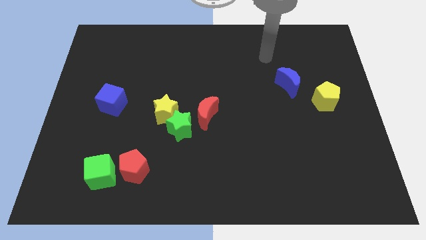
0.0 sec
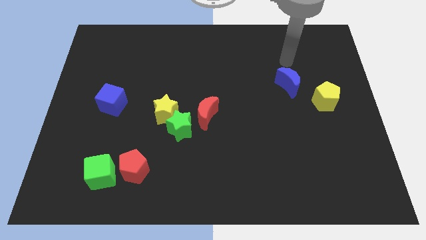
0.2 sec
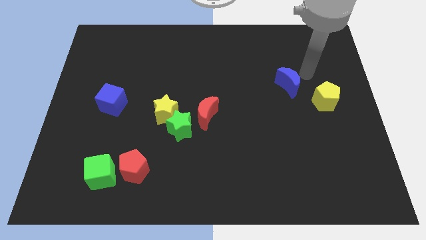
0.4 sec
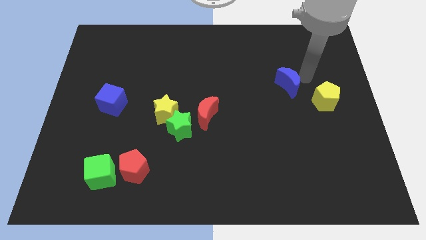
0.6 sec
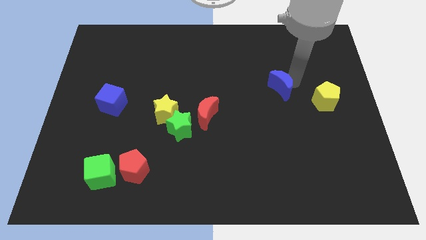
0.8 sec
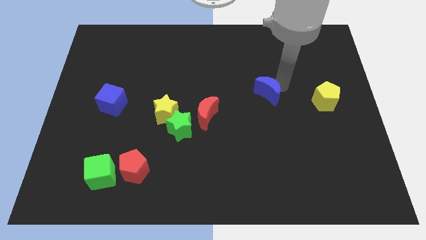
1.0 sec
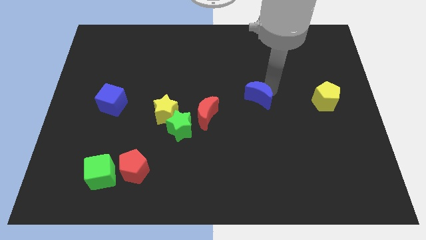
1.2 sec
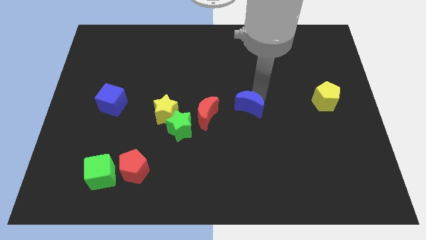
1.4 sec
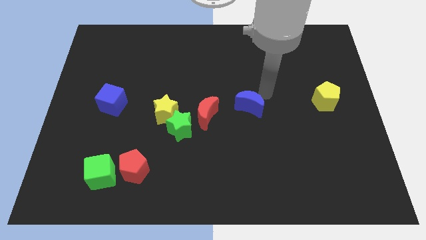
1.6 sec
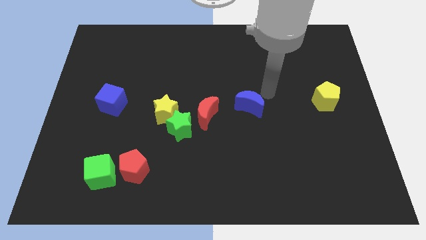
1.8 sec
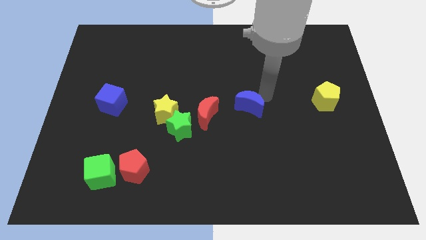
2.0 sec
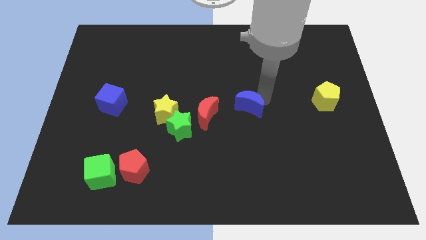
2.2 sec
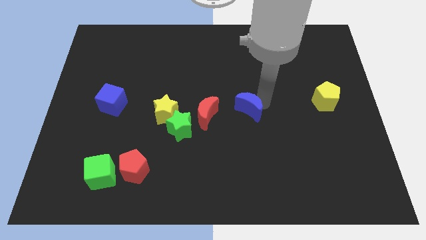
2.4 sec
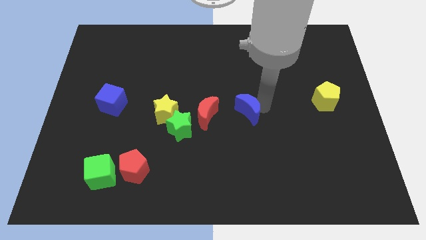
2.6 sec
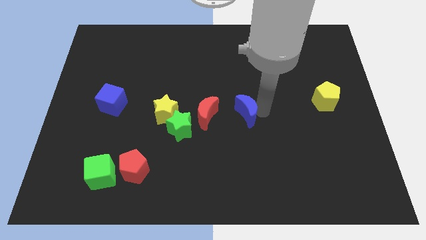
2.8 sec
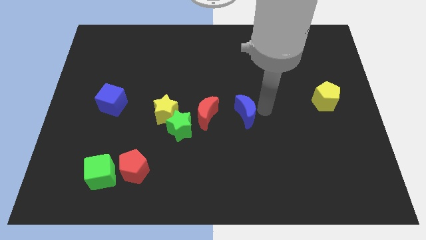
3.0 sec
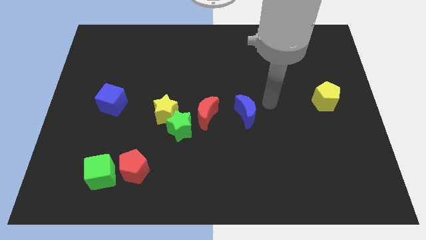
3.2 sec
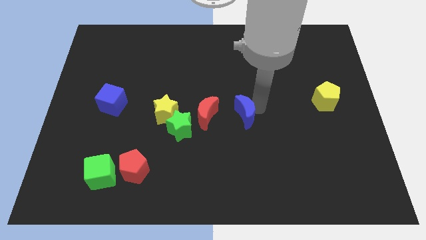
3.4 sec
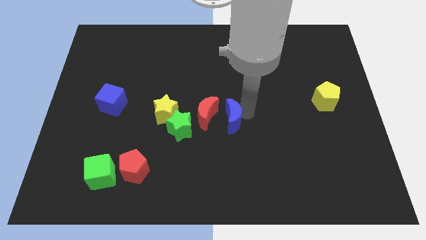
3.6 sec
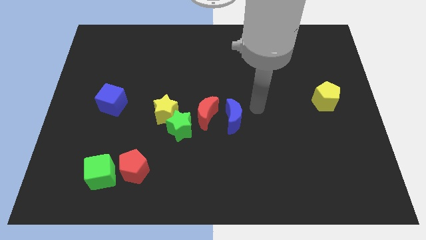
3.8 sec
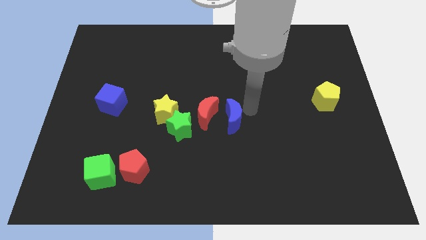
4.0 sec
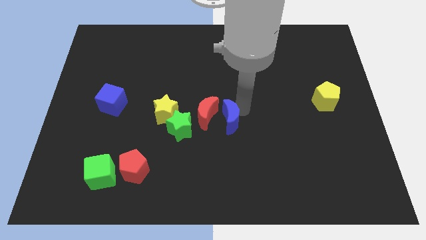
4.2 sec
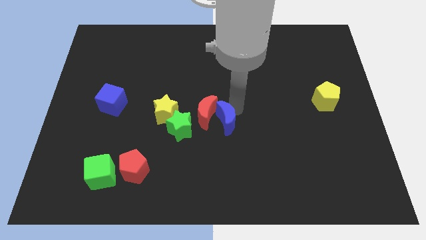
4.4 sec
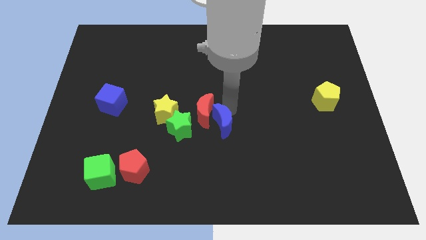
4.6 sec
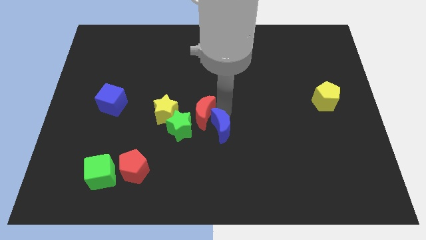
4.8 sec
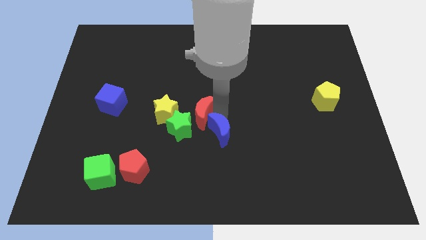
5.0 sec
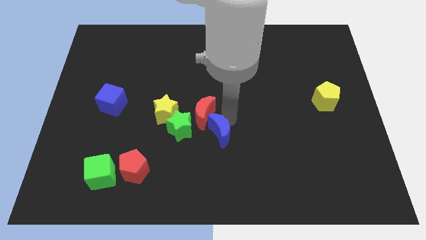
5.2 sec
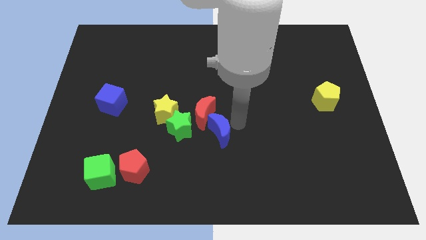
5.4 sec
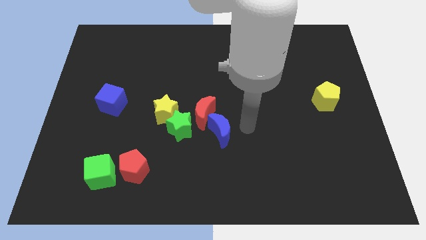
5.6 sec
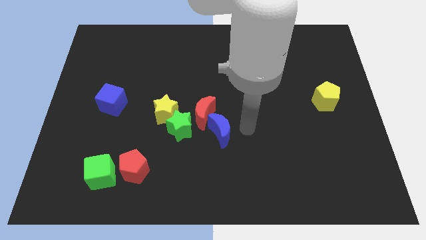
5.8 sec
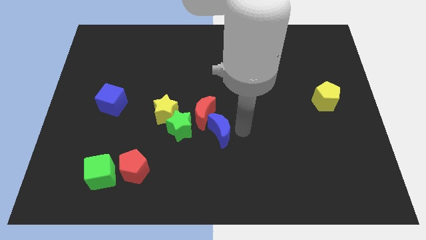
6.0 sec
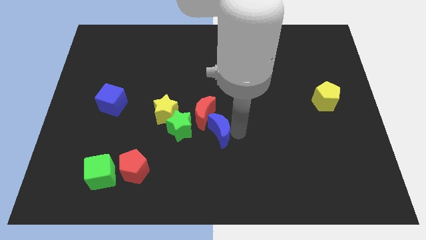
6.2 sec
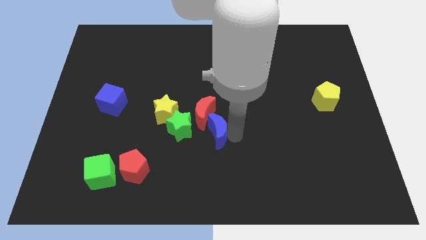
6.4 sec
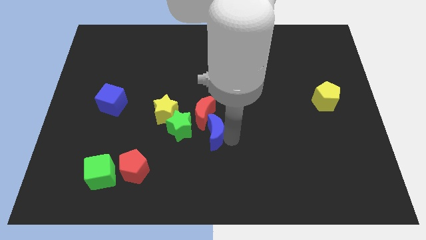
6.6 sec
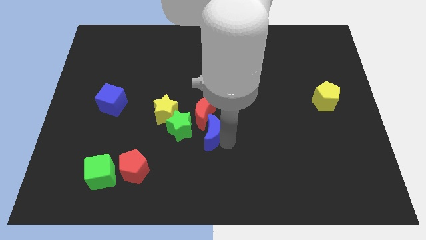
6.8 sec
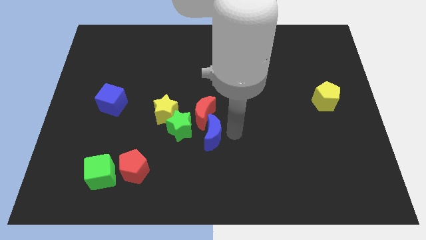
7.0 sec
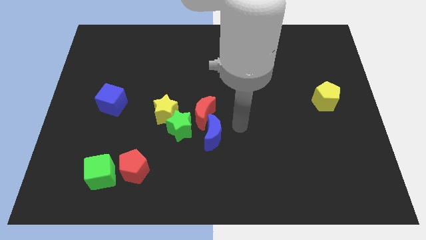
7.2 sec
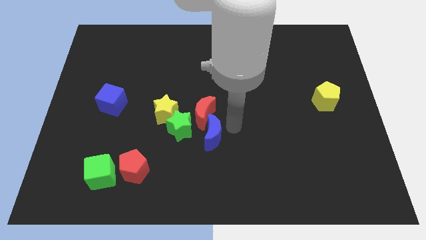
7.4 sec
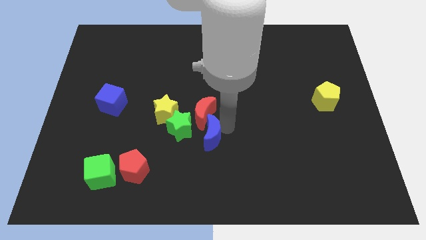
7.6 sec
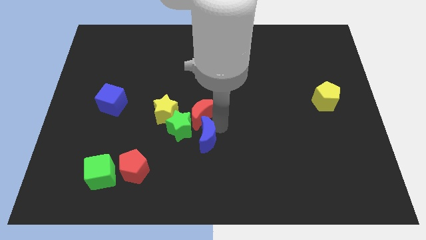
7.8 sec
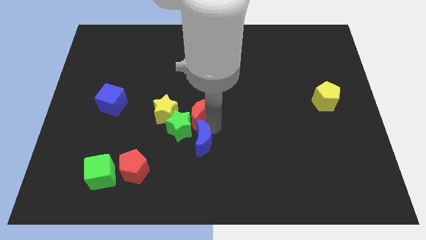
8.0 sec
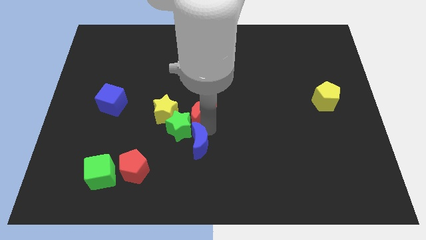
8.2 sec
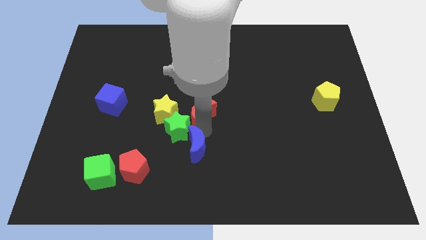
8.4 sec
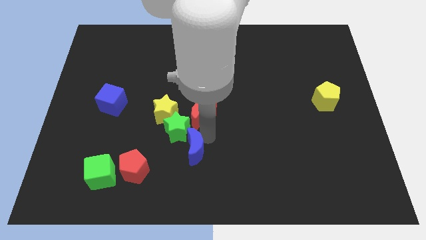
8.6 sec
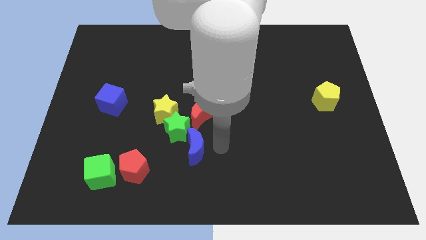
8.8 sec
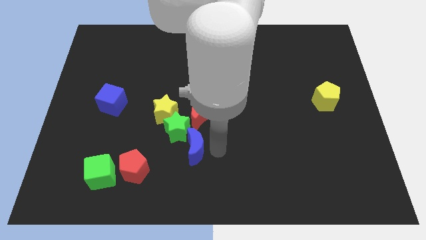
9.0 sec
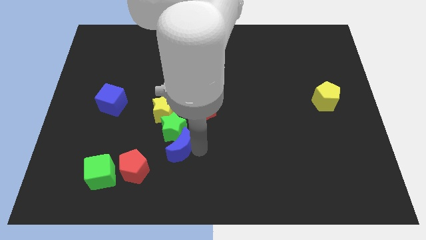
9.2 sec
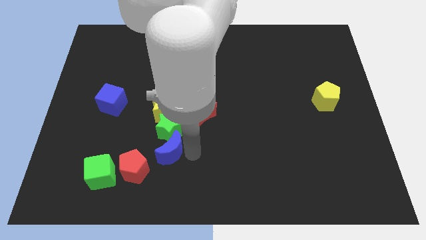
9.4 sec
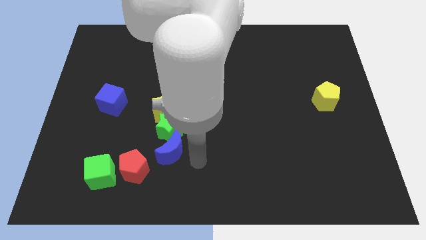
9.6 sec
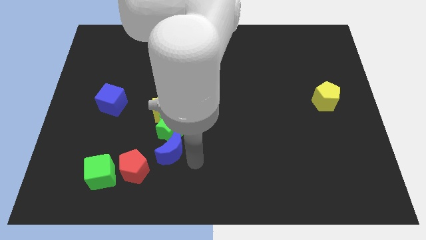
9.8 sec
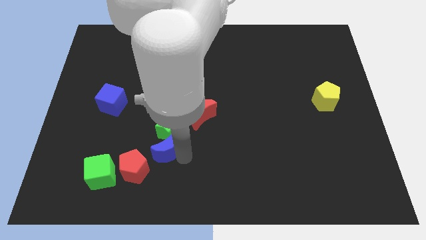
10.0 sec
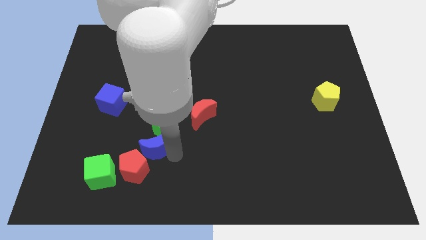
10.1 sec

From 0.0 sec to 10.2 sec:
put the blue moon above the red pentagon

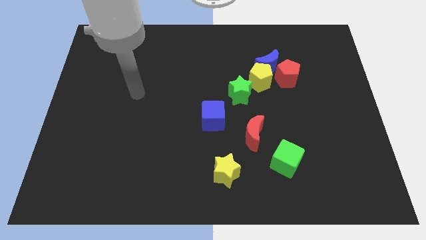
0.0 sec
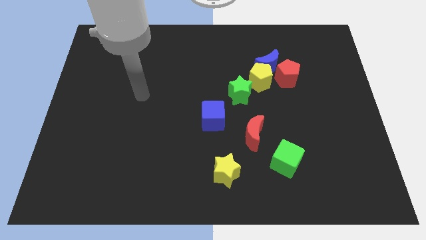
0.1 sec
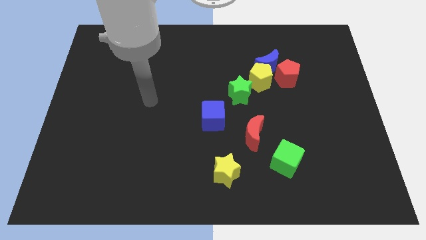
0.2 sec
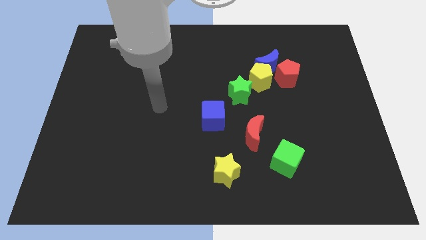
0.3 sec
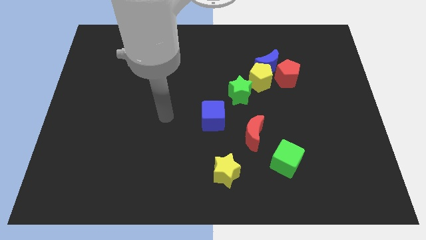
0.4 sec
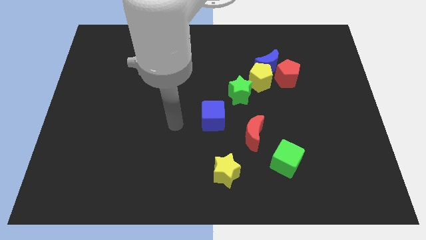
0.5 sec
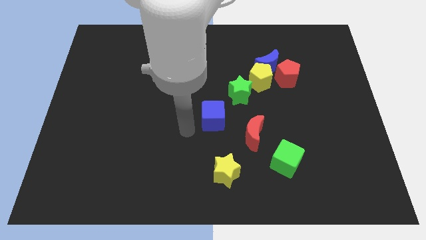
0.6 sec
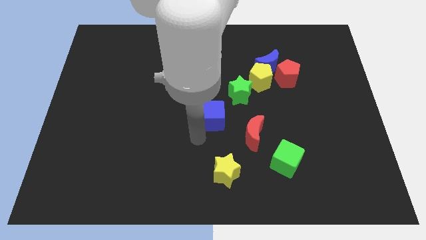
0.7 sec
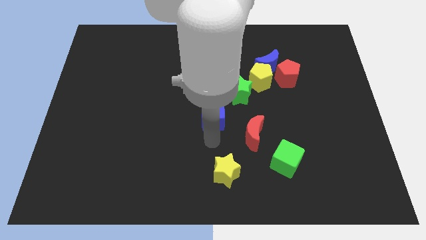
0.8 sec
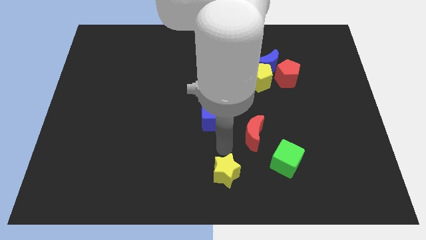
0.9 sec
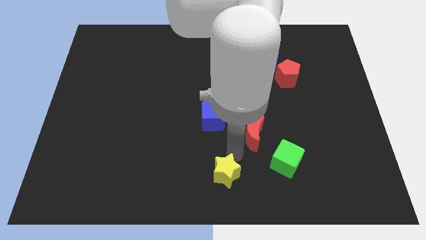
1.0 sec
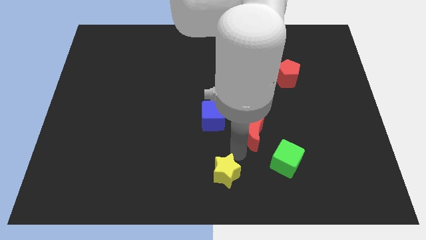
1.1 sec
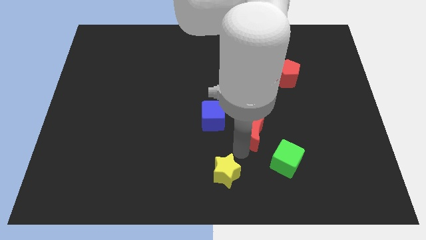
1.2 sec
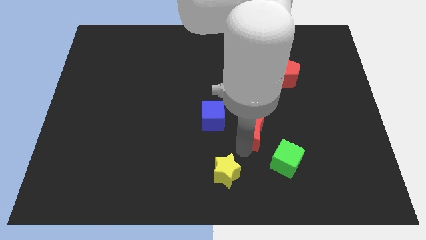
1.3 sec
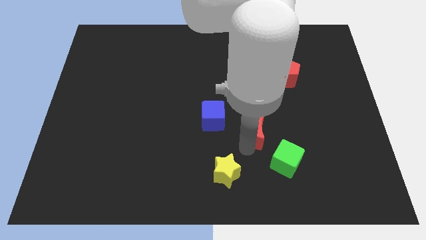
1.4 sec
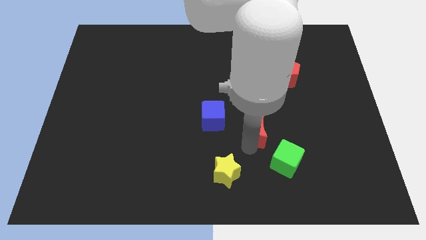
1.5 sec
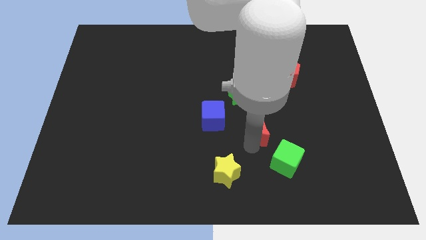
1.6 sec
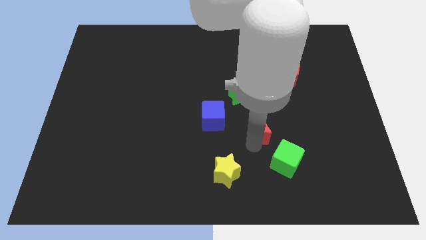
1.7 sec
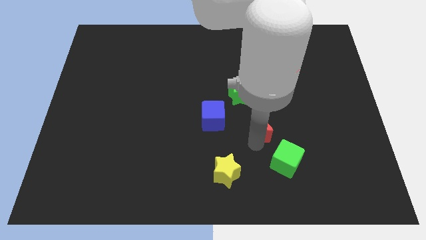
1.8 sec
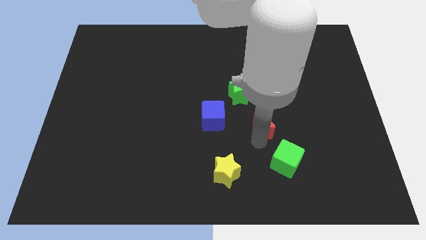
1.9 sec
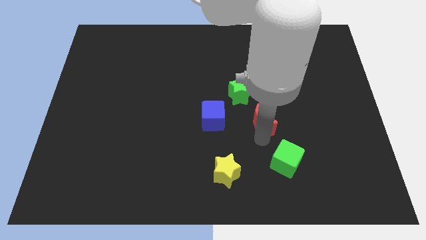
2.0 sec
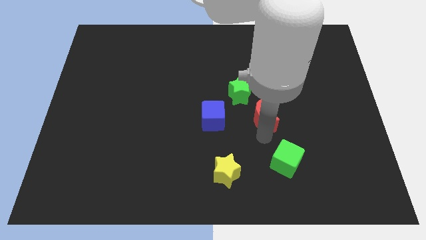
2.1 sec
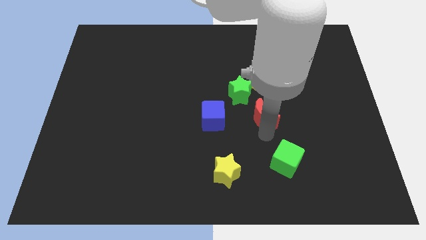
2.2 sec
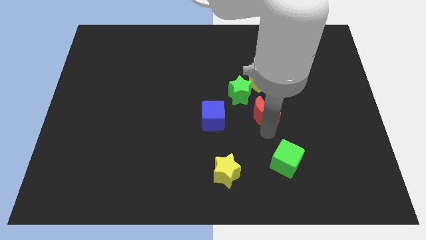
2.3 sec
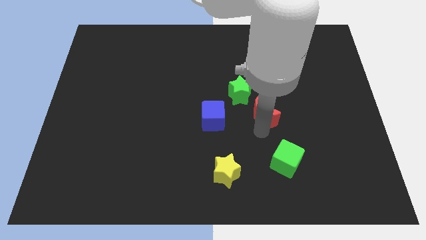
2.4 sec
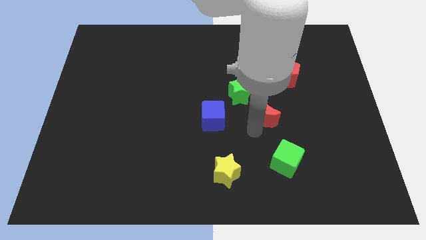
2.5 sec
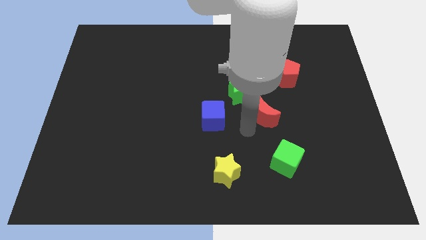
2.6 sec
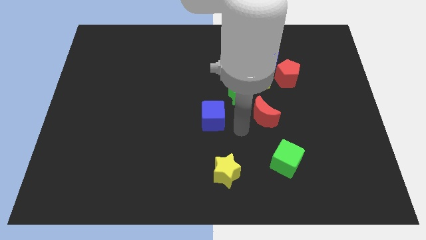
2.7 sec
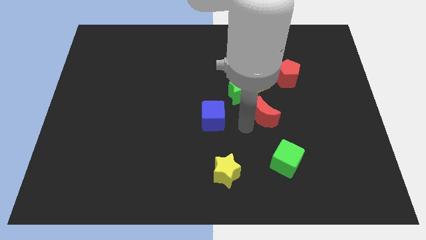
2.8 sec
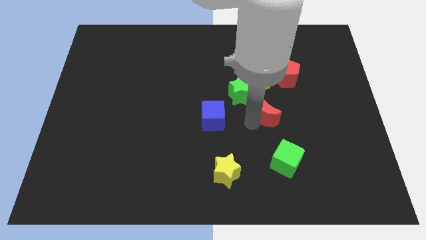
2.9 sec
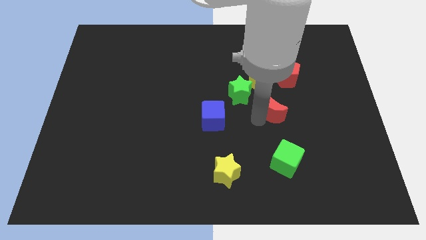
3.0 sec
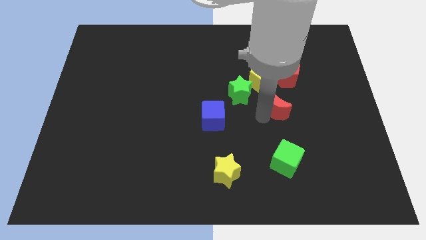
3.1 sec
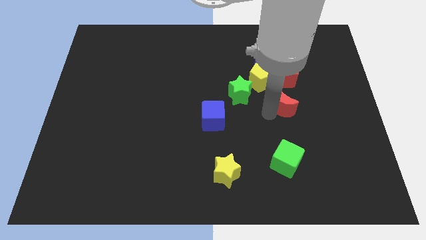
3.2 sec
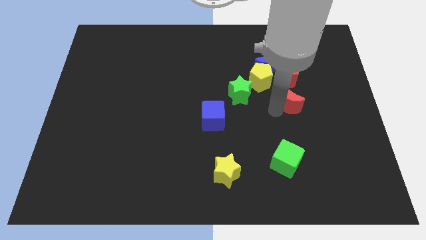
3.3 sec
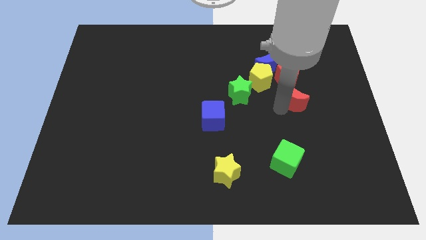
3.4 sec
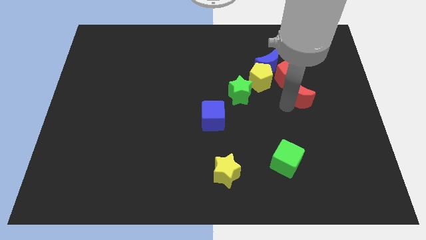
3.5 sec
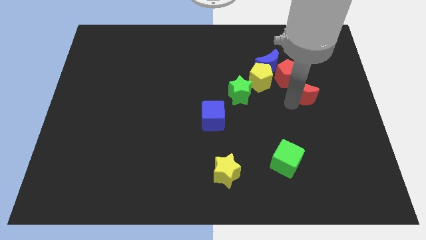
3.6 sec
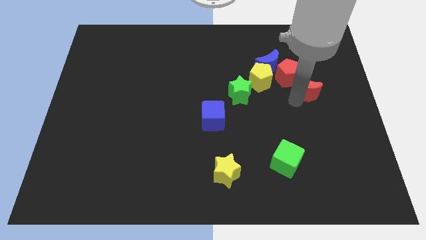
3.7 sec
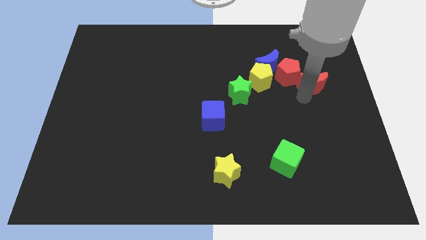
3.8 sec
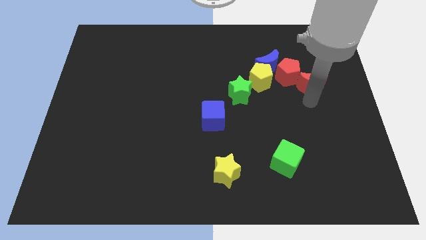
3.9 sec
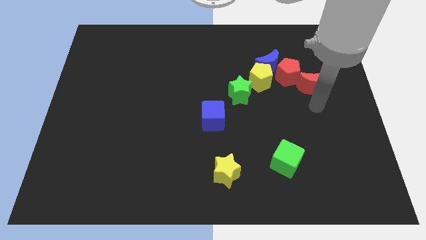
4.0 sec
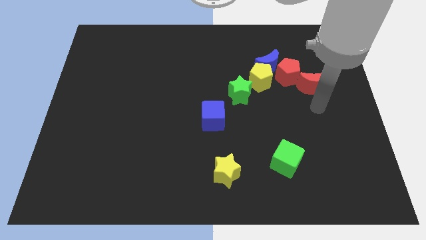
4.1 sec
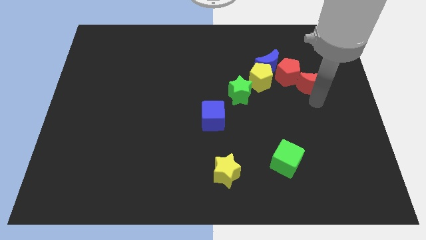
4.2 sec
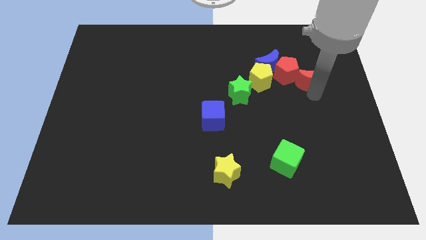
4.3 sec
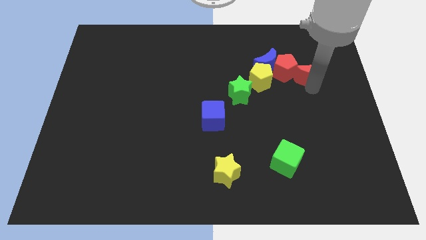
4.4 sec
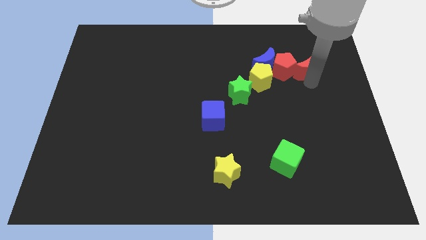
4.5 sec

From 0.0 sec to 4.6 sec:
move the red moon diagonally up and to the right of the red pentagon
